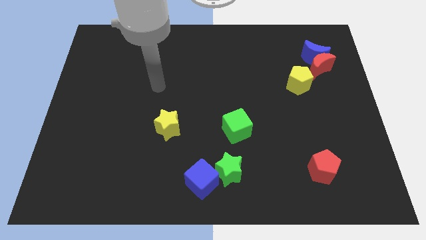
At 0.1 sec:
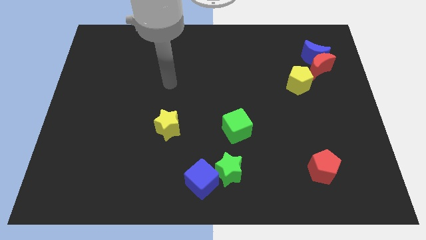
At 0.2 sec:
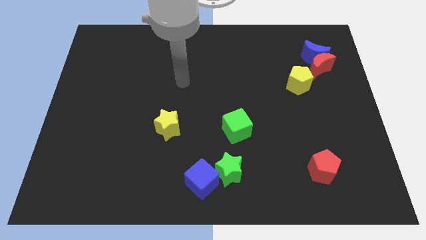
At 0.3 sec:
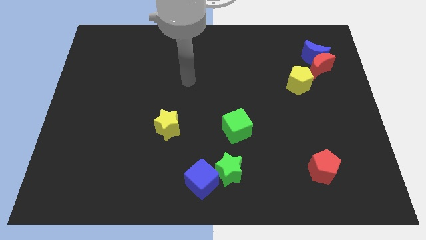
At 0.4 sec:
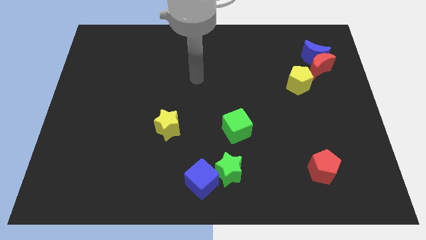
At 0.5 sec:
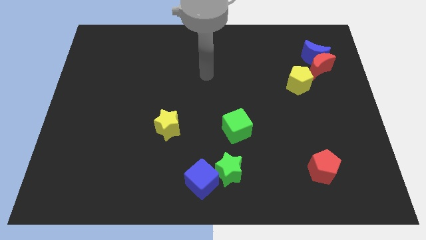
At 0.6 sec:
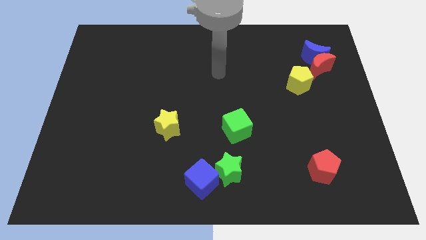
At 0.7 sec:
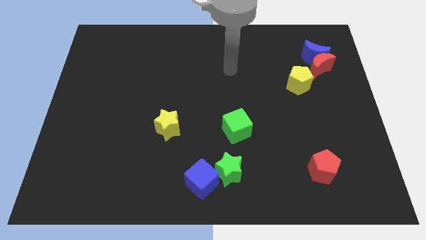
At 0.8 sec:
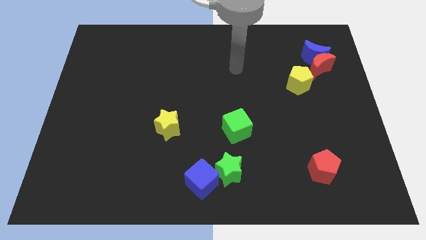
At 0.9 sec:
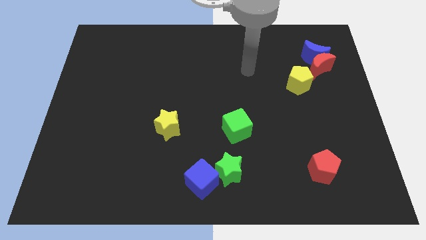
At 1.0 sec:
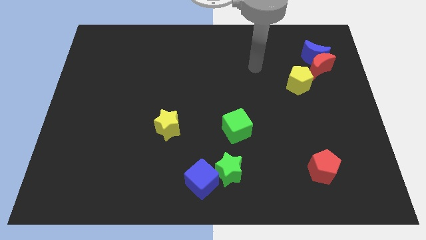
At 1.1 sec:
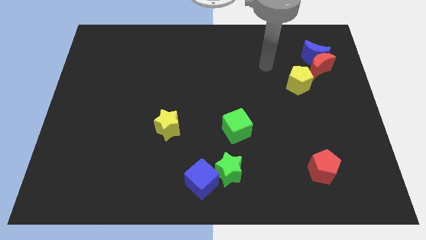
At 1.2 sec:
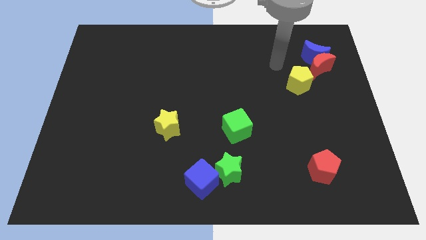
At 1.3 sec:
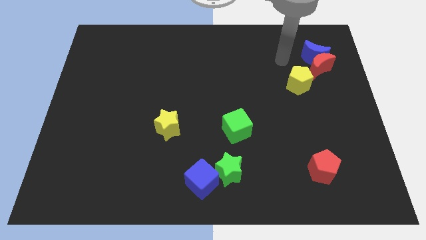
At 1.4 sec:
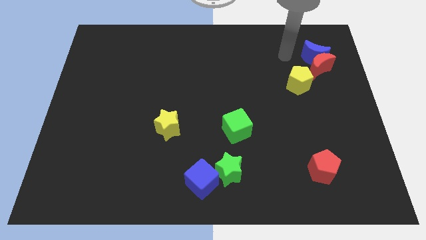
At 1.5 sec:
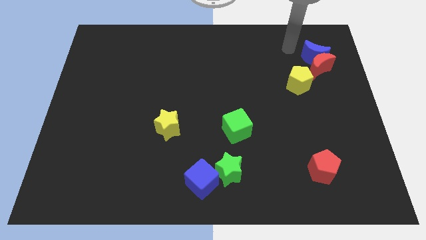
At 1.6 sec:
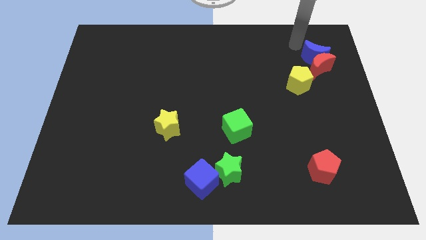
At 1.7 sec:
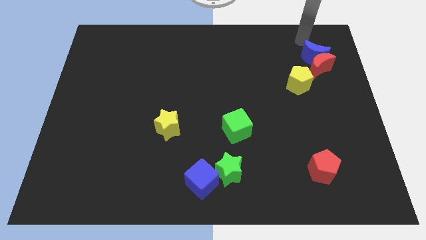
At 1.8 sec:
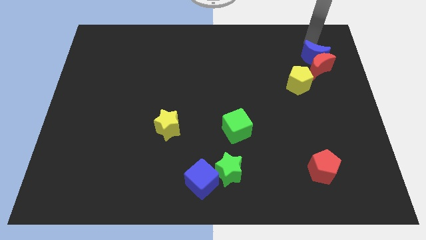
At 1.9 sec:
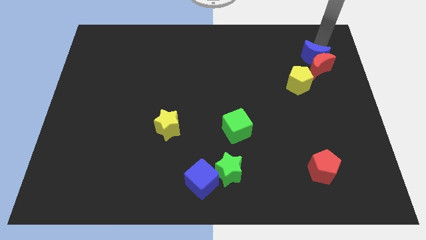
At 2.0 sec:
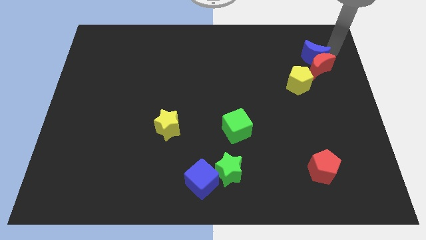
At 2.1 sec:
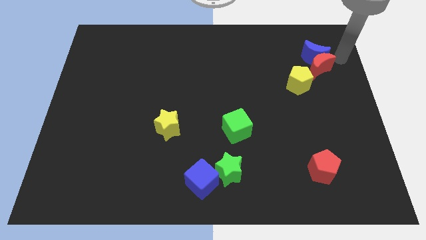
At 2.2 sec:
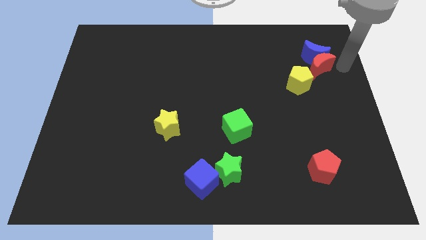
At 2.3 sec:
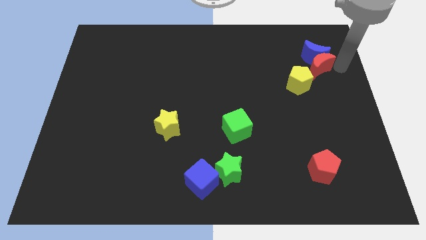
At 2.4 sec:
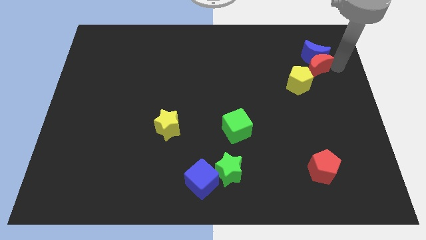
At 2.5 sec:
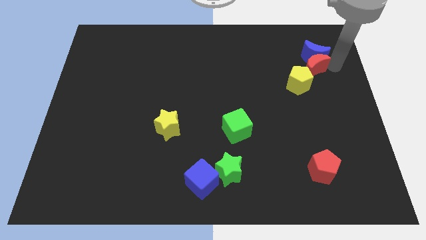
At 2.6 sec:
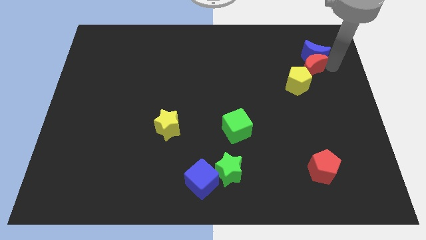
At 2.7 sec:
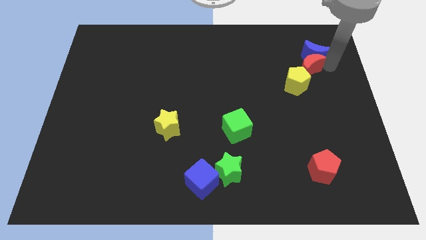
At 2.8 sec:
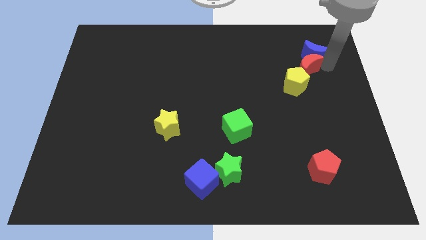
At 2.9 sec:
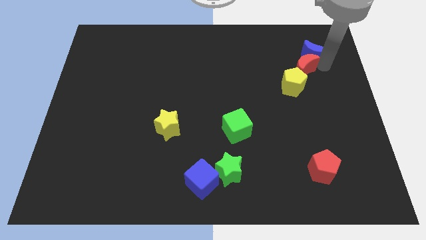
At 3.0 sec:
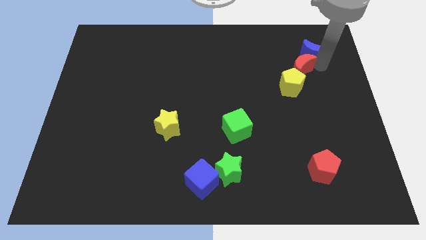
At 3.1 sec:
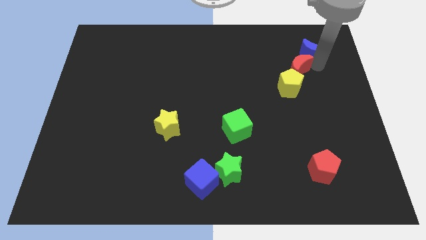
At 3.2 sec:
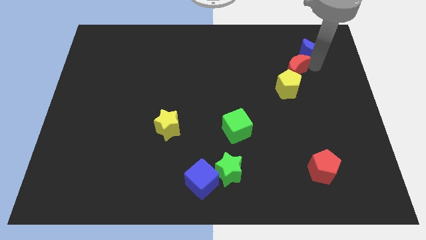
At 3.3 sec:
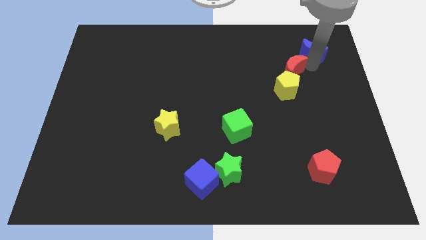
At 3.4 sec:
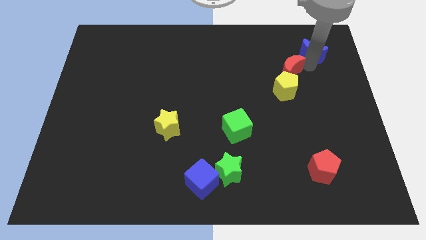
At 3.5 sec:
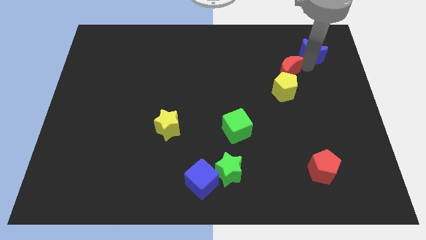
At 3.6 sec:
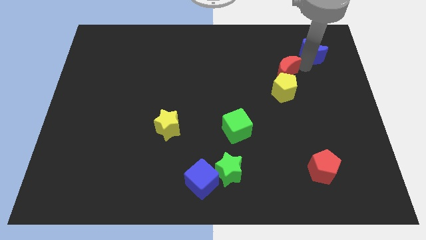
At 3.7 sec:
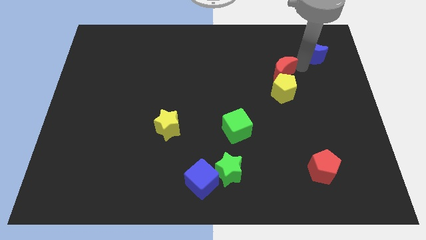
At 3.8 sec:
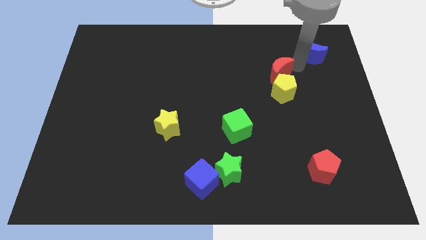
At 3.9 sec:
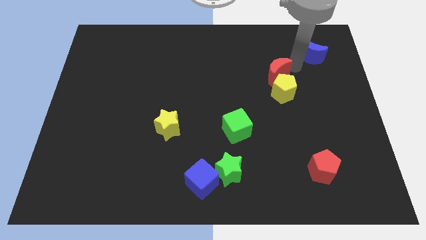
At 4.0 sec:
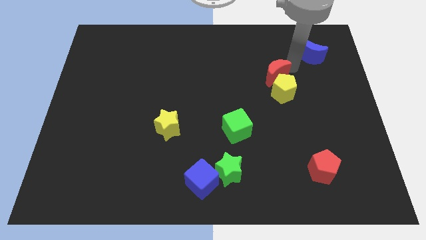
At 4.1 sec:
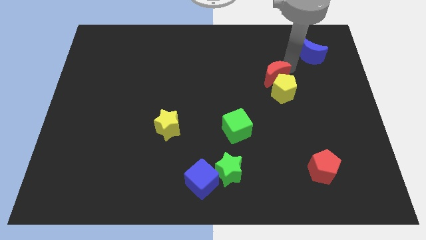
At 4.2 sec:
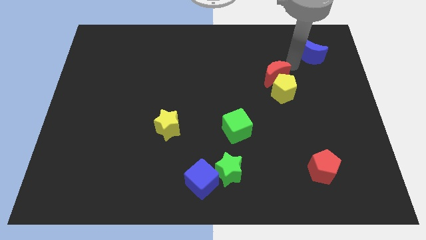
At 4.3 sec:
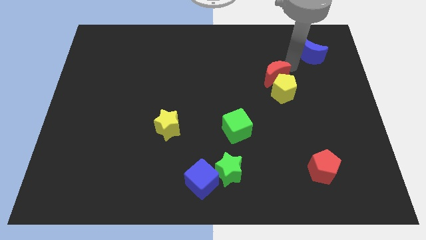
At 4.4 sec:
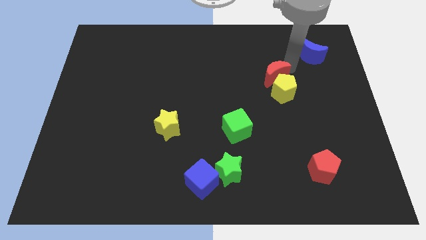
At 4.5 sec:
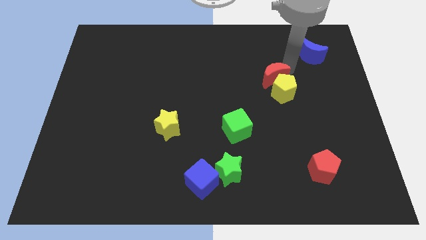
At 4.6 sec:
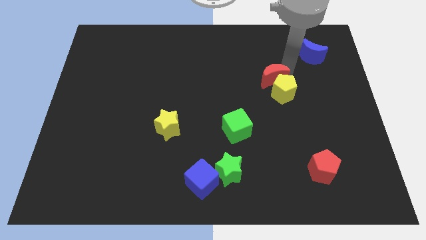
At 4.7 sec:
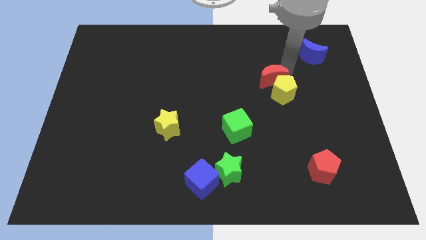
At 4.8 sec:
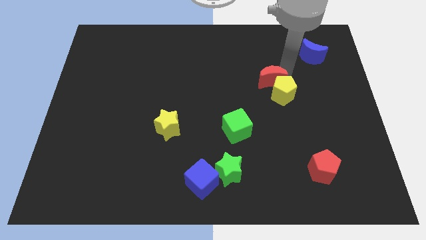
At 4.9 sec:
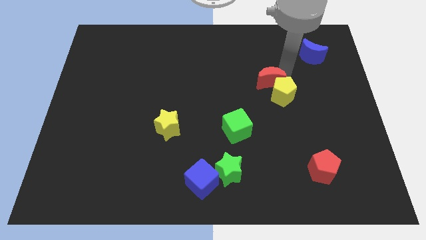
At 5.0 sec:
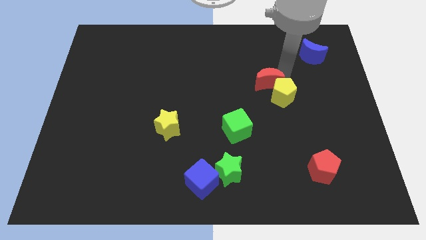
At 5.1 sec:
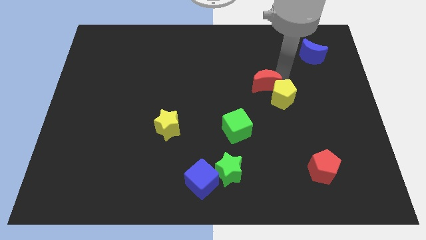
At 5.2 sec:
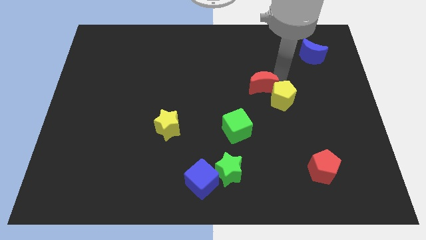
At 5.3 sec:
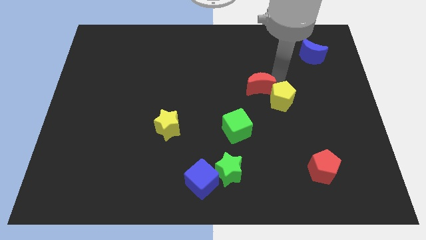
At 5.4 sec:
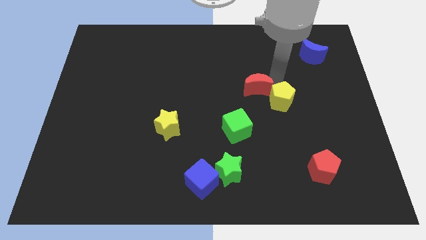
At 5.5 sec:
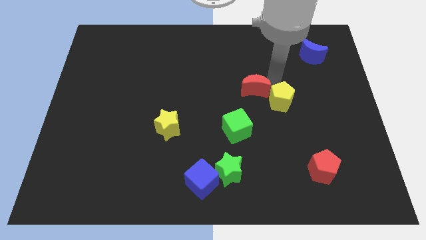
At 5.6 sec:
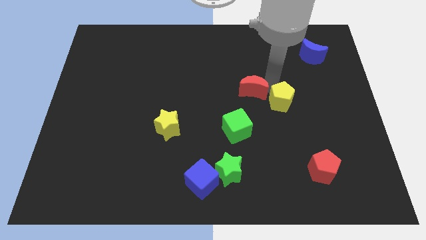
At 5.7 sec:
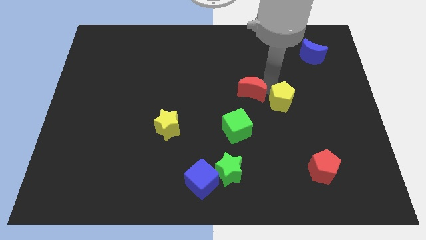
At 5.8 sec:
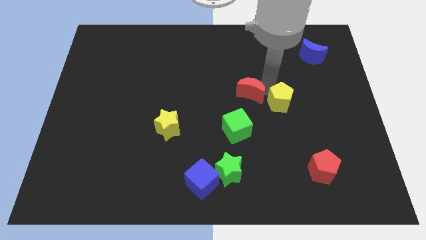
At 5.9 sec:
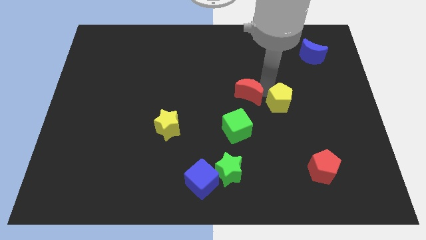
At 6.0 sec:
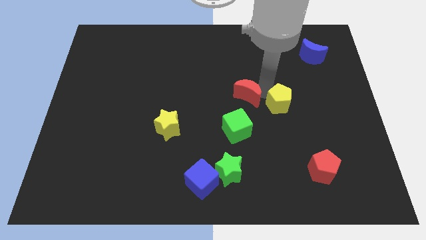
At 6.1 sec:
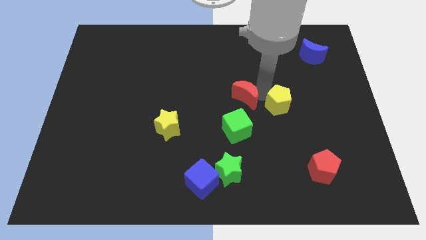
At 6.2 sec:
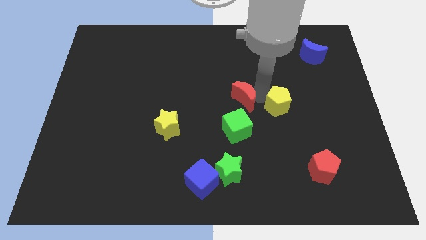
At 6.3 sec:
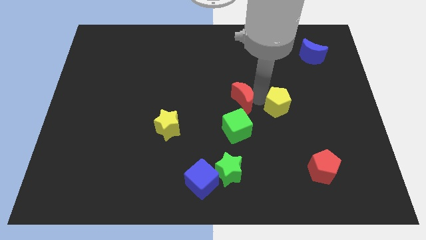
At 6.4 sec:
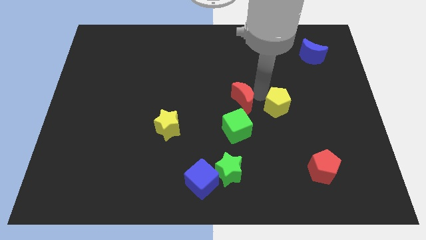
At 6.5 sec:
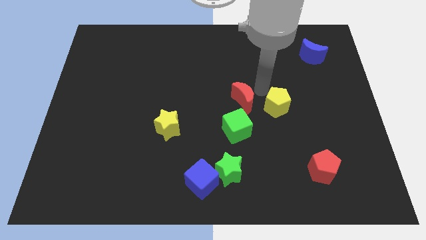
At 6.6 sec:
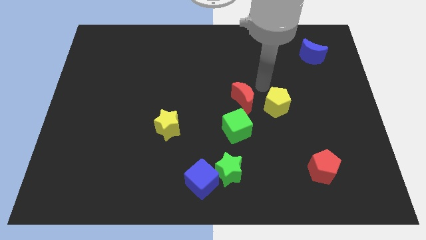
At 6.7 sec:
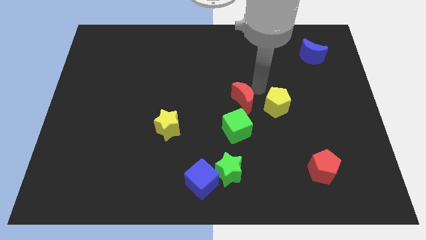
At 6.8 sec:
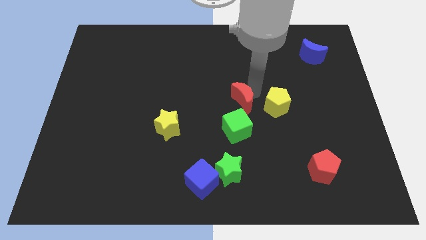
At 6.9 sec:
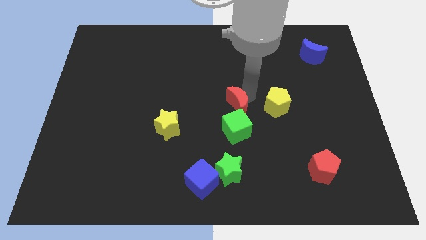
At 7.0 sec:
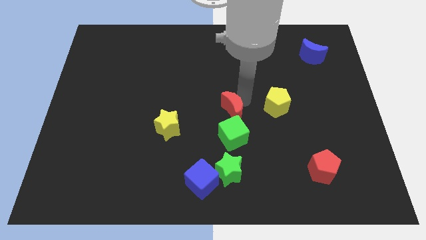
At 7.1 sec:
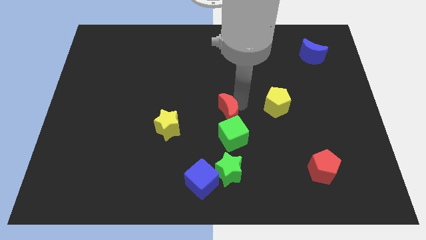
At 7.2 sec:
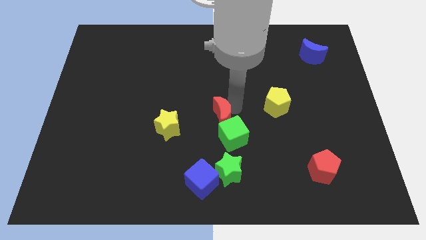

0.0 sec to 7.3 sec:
put the red moon to the right of the yellow star
